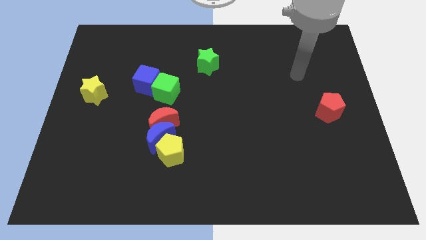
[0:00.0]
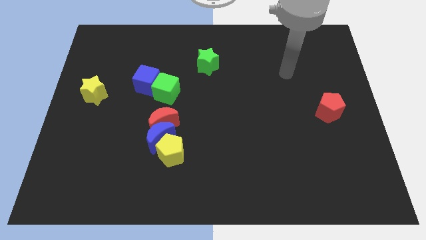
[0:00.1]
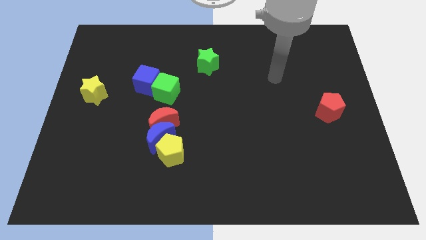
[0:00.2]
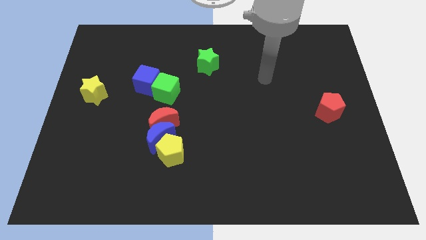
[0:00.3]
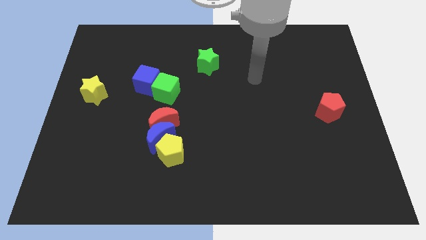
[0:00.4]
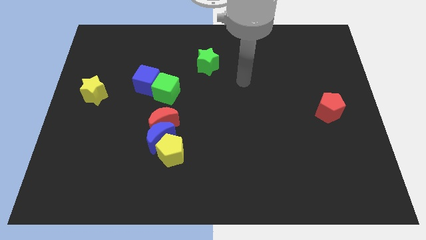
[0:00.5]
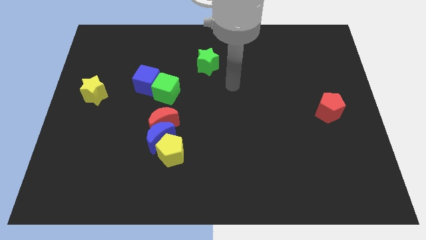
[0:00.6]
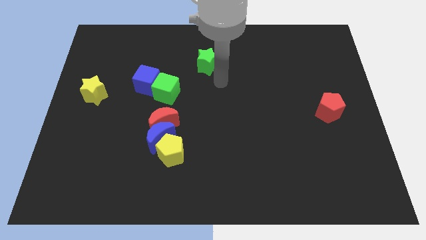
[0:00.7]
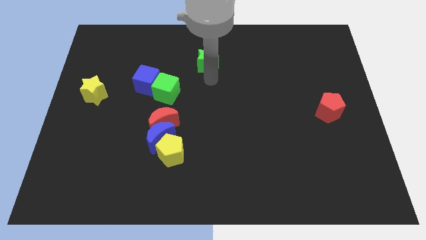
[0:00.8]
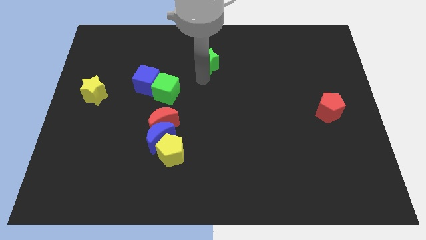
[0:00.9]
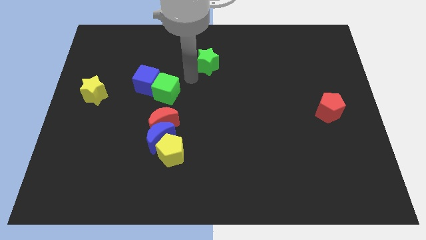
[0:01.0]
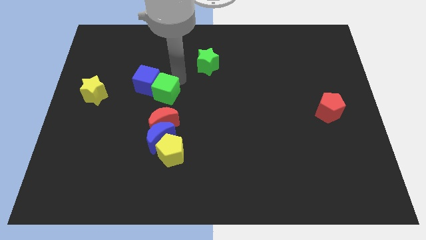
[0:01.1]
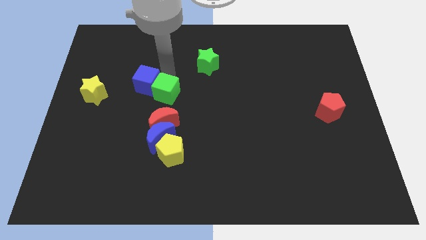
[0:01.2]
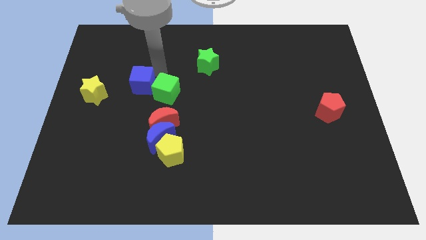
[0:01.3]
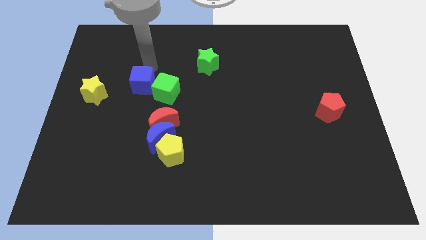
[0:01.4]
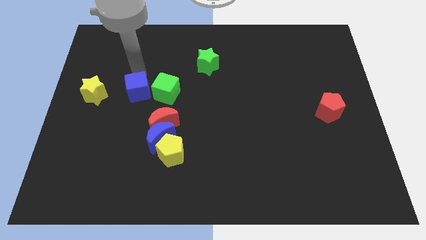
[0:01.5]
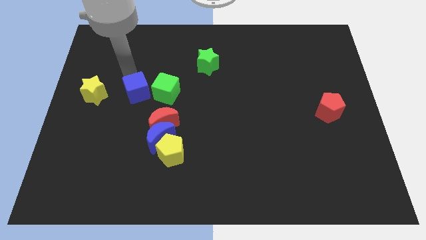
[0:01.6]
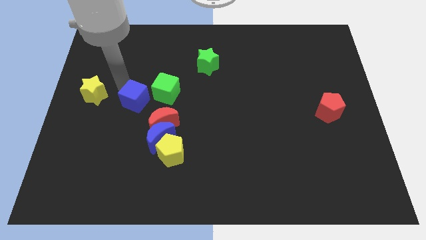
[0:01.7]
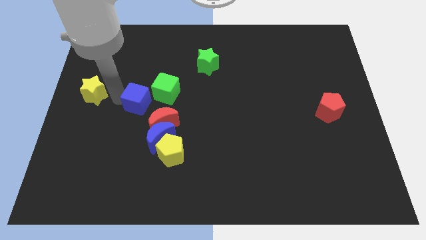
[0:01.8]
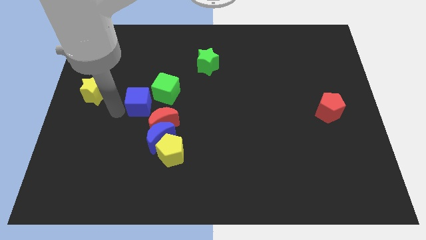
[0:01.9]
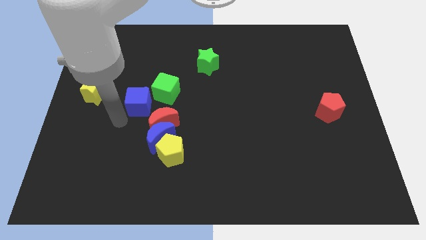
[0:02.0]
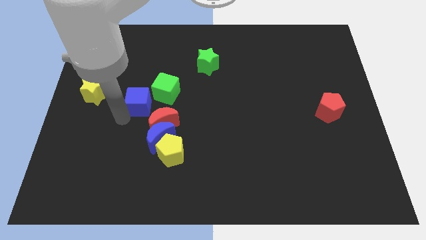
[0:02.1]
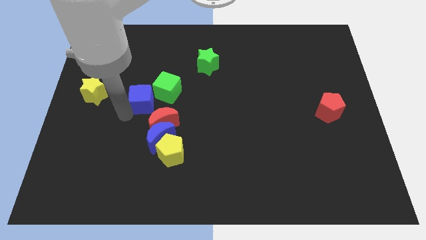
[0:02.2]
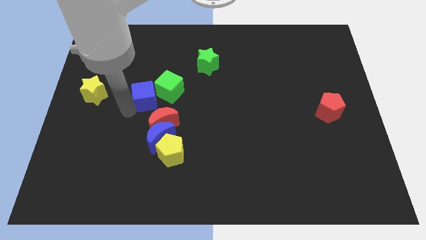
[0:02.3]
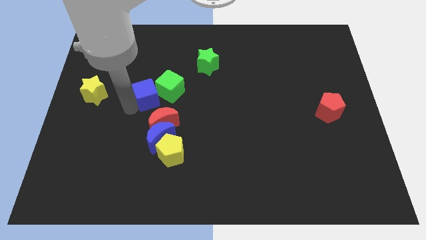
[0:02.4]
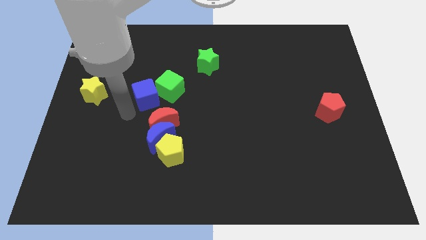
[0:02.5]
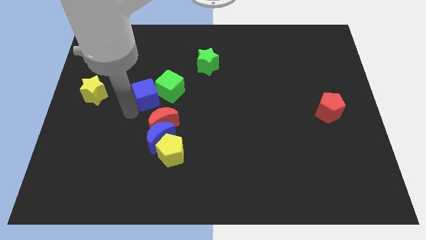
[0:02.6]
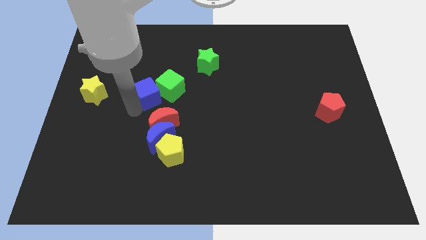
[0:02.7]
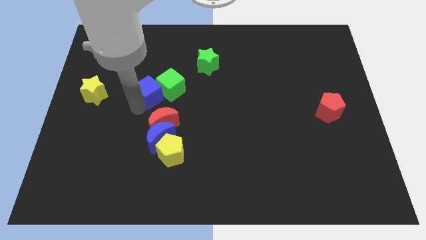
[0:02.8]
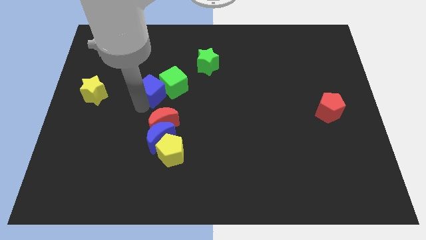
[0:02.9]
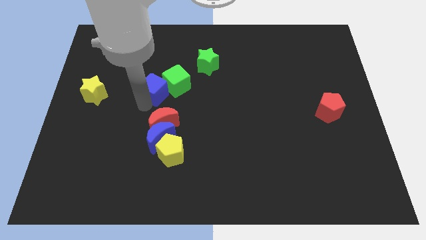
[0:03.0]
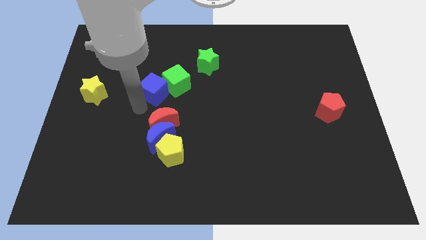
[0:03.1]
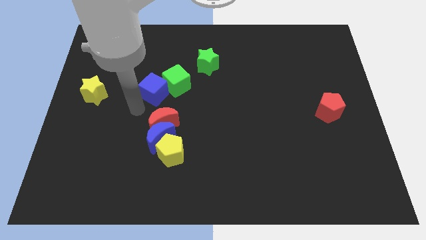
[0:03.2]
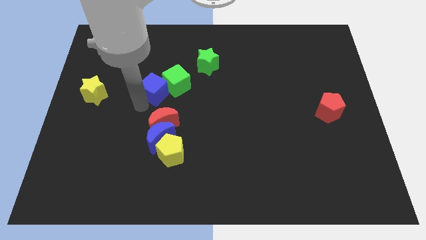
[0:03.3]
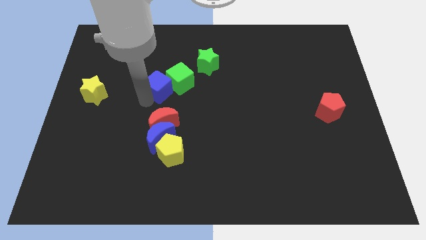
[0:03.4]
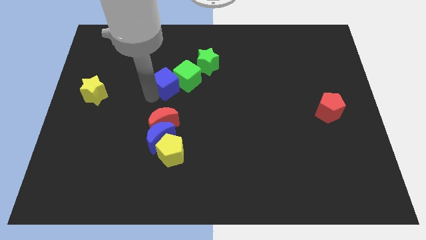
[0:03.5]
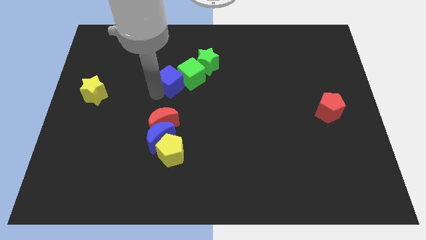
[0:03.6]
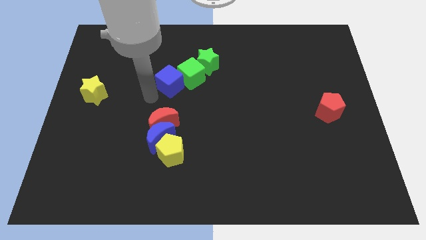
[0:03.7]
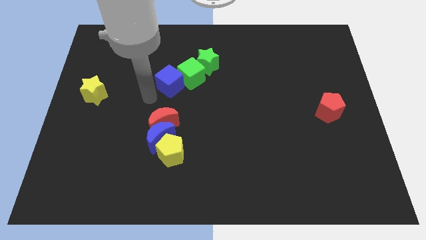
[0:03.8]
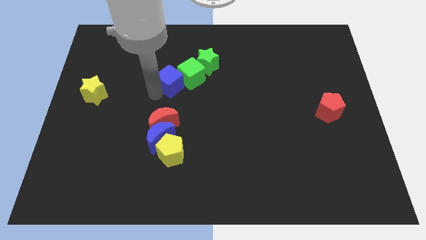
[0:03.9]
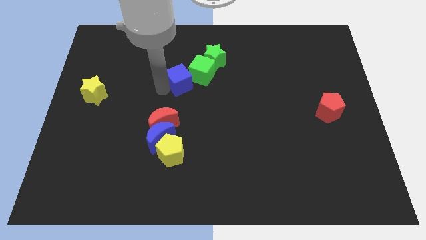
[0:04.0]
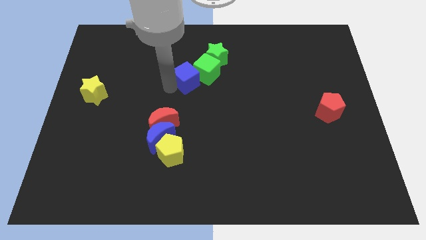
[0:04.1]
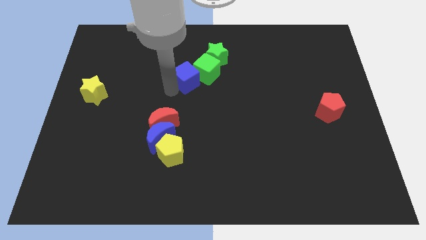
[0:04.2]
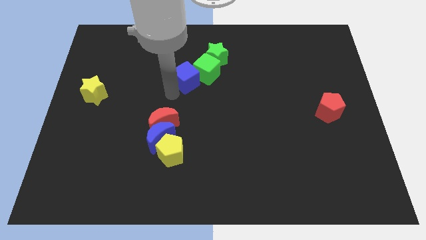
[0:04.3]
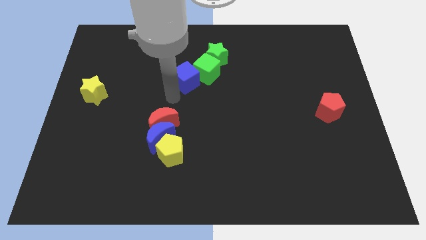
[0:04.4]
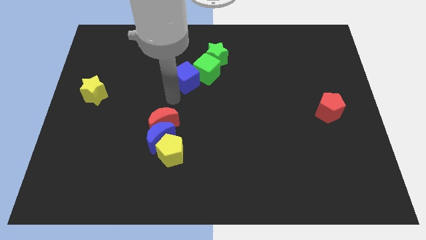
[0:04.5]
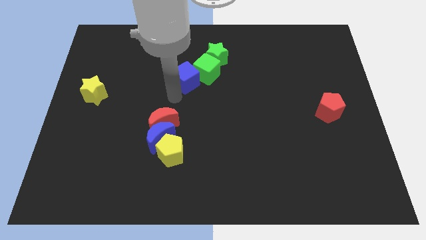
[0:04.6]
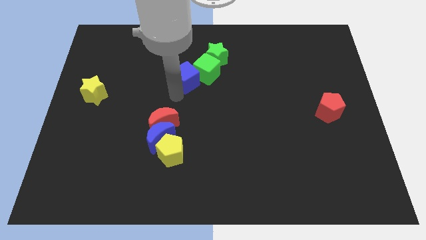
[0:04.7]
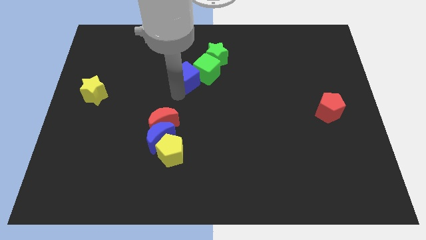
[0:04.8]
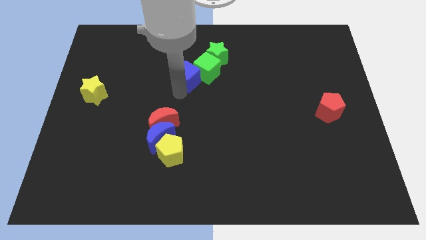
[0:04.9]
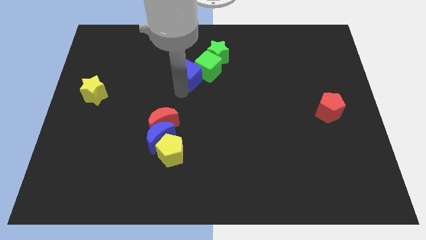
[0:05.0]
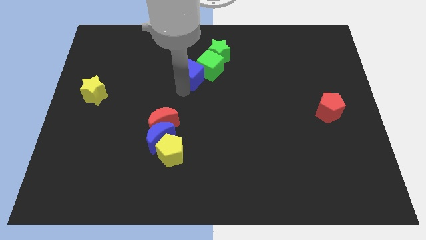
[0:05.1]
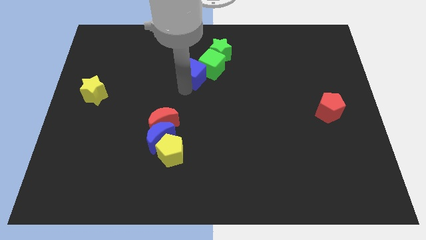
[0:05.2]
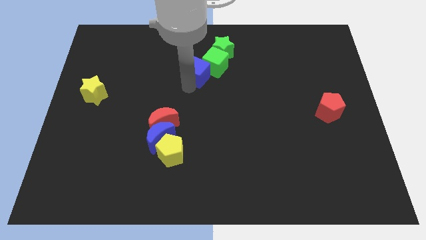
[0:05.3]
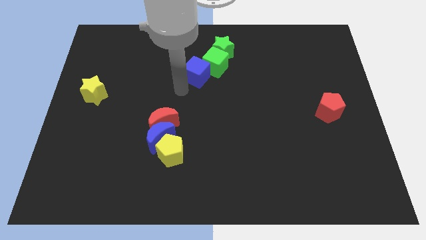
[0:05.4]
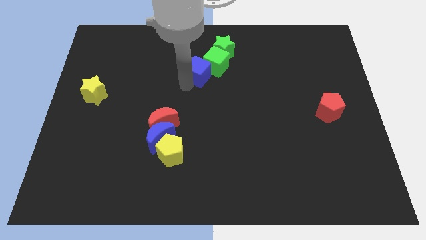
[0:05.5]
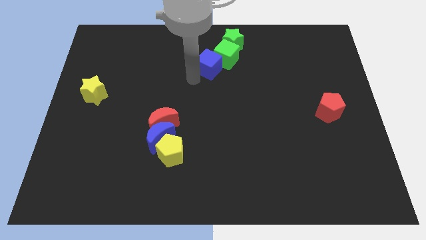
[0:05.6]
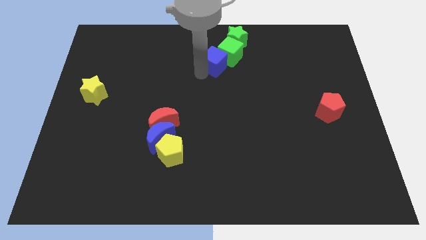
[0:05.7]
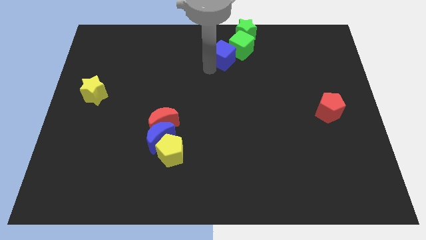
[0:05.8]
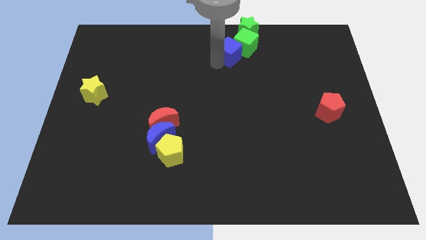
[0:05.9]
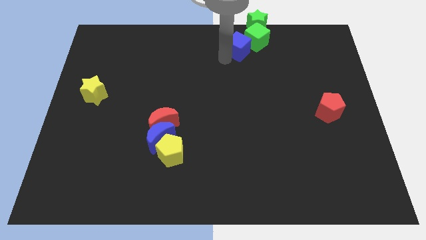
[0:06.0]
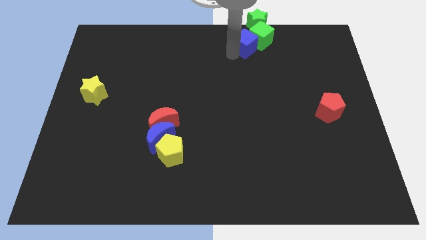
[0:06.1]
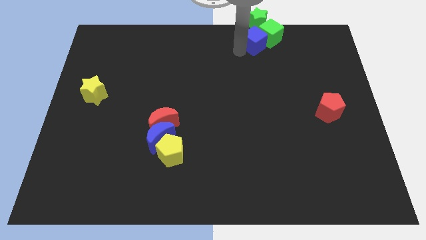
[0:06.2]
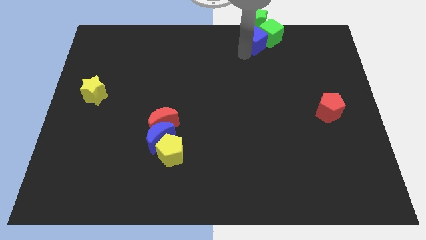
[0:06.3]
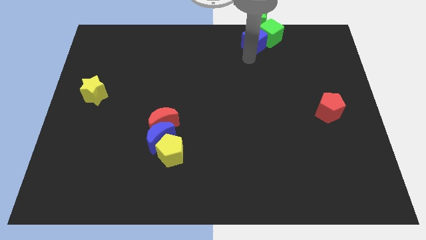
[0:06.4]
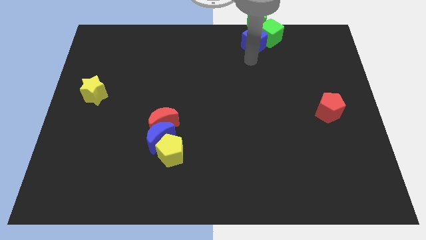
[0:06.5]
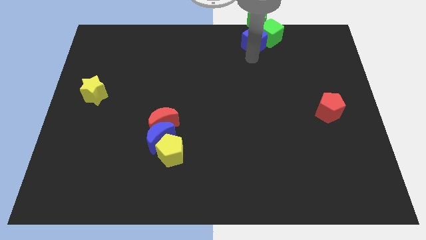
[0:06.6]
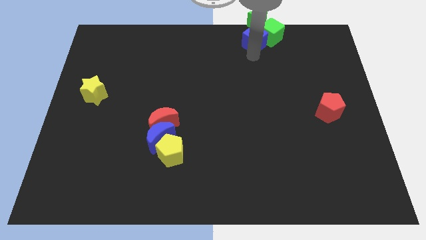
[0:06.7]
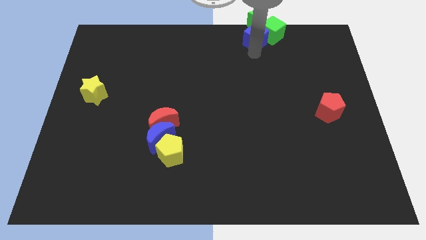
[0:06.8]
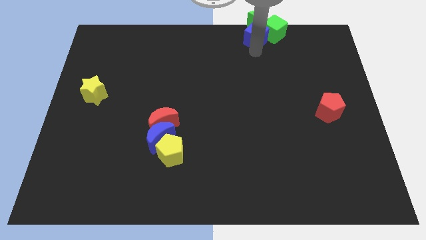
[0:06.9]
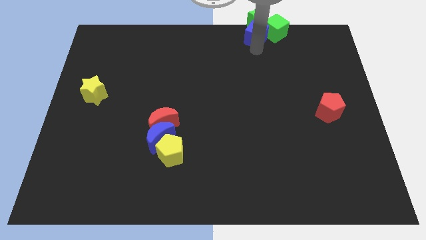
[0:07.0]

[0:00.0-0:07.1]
slide the blue cube towards the green star
